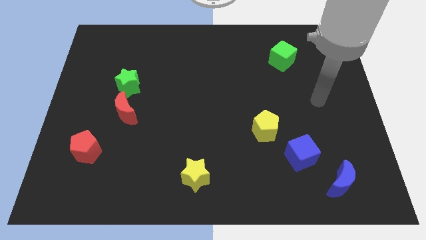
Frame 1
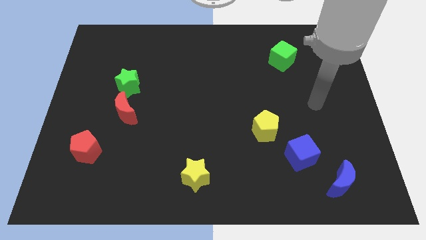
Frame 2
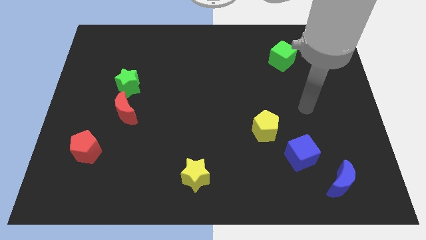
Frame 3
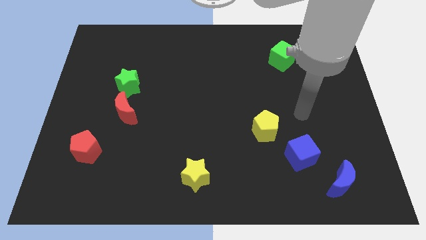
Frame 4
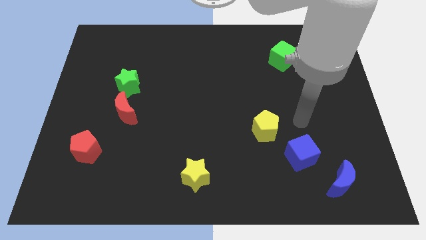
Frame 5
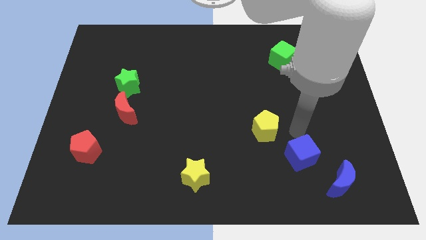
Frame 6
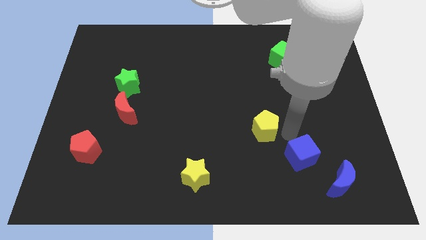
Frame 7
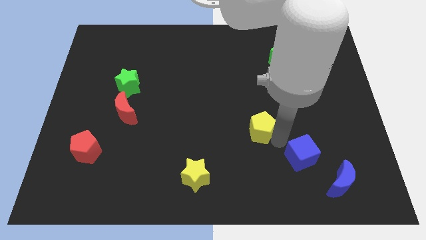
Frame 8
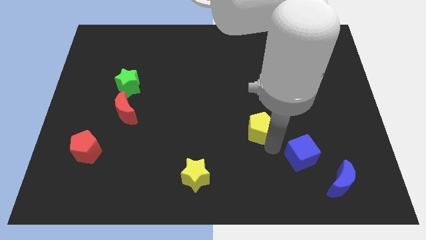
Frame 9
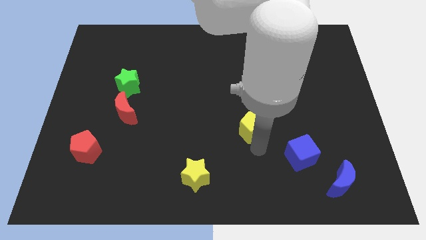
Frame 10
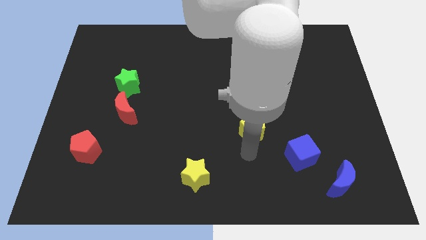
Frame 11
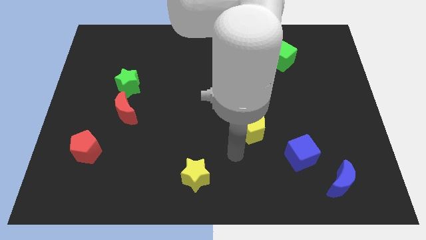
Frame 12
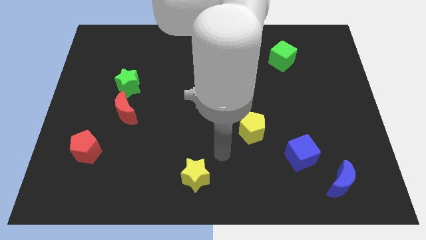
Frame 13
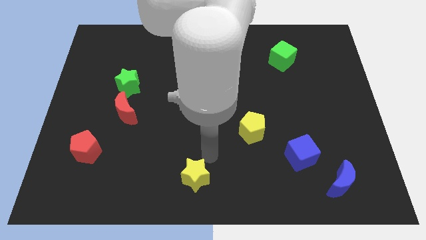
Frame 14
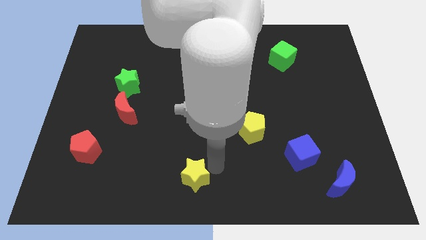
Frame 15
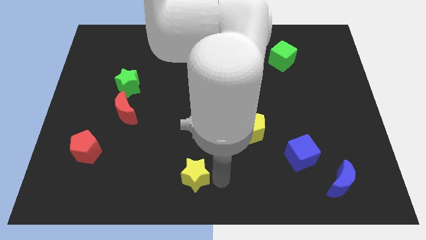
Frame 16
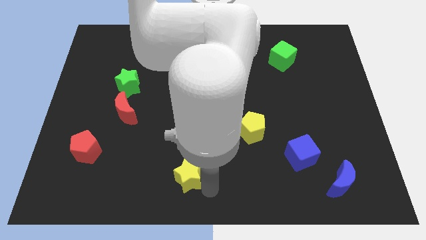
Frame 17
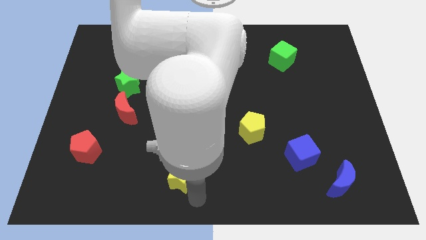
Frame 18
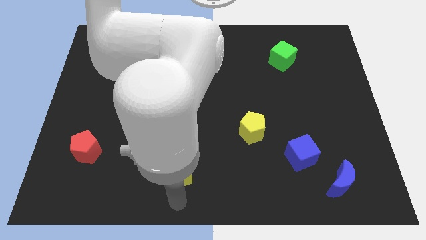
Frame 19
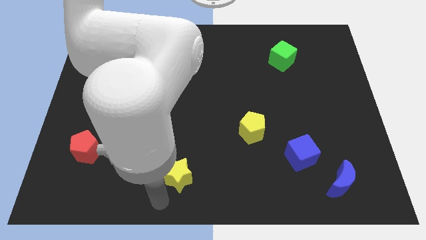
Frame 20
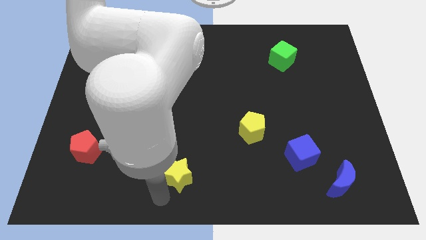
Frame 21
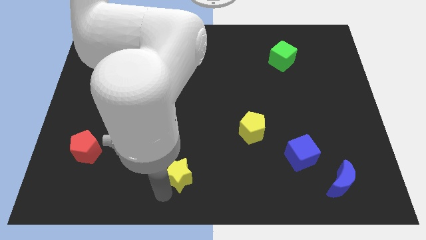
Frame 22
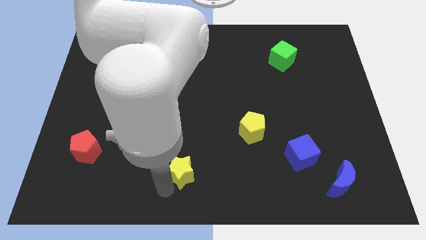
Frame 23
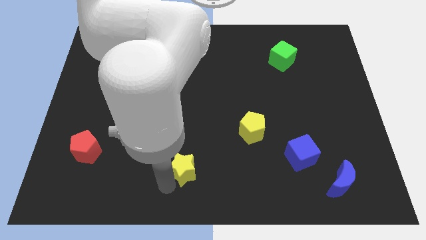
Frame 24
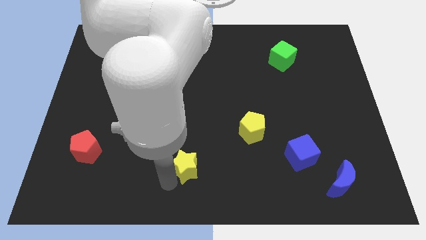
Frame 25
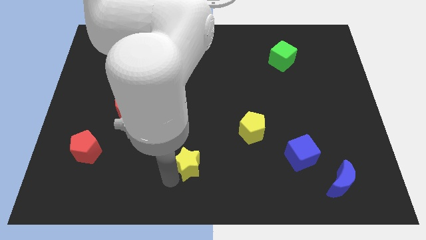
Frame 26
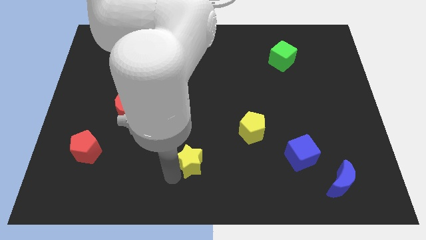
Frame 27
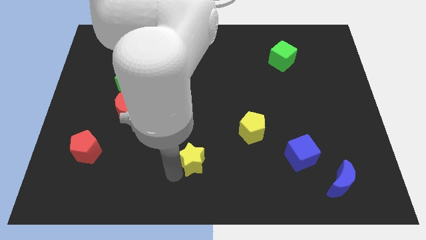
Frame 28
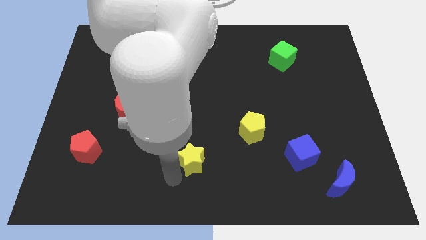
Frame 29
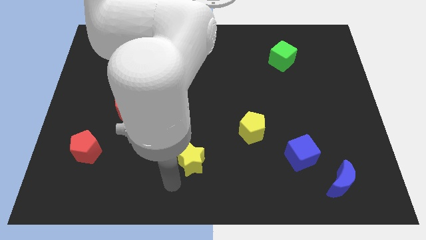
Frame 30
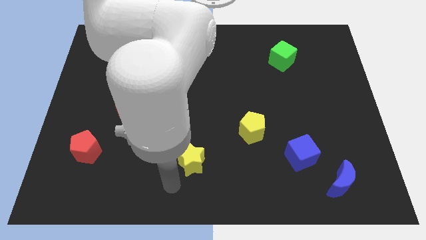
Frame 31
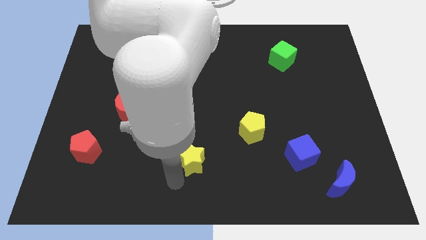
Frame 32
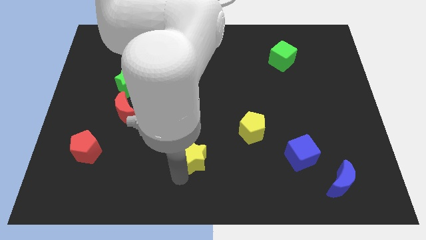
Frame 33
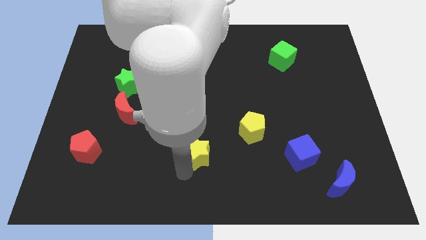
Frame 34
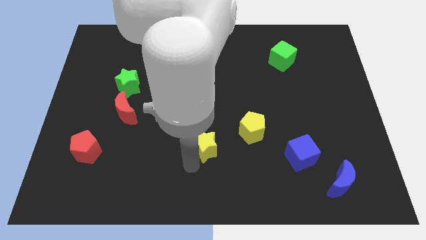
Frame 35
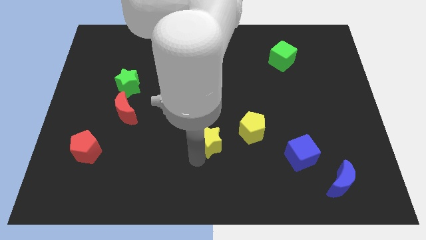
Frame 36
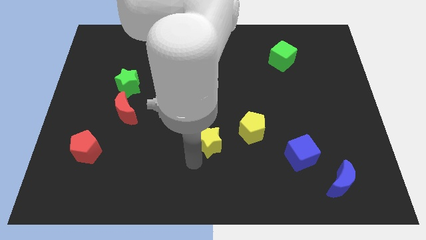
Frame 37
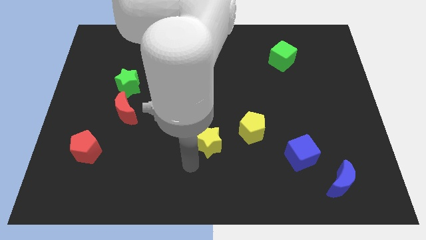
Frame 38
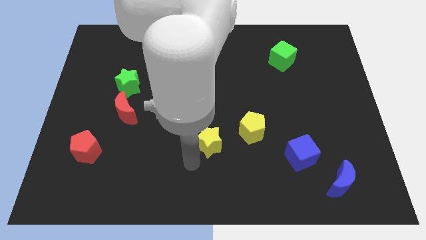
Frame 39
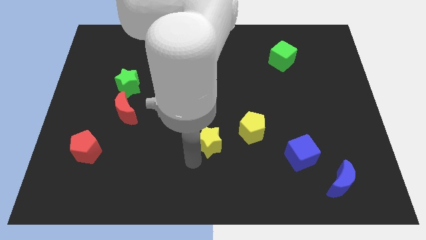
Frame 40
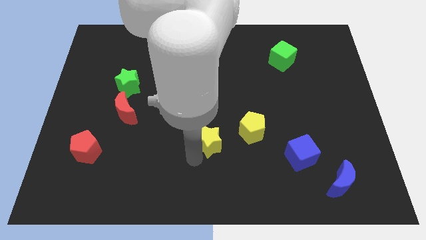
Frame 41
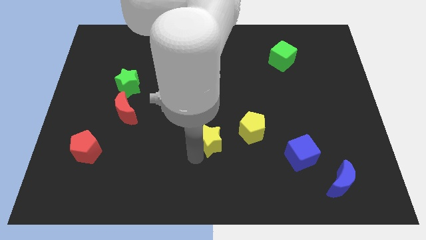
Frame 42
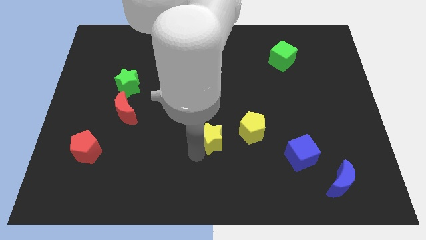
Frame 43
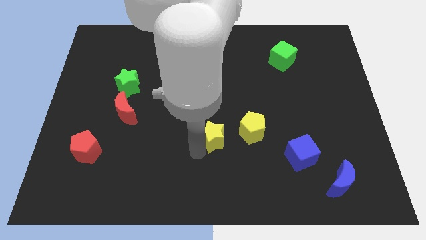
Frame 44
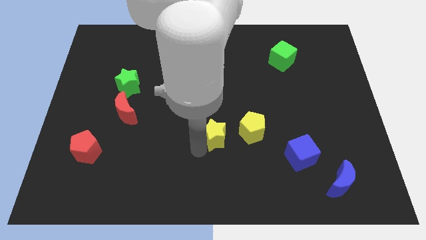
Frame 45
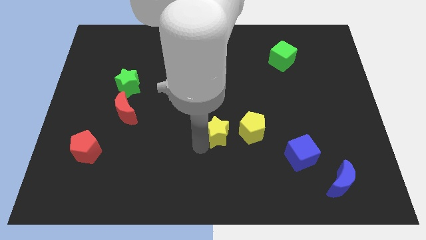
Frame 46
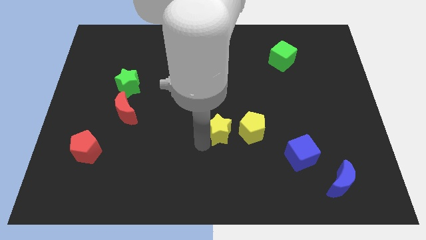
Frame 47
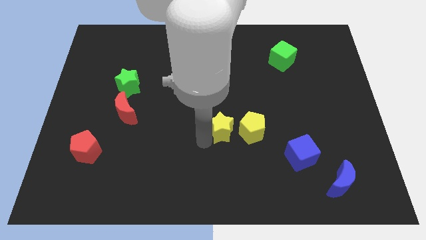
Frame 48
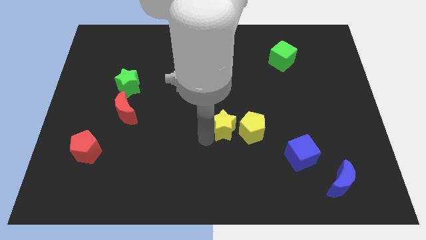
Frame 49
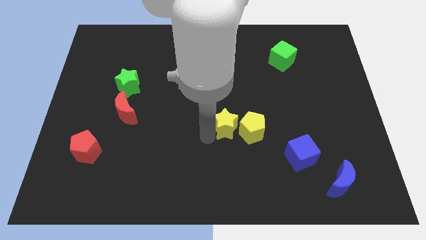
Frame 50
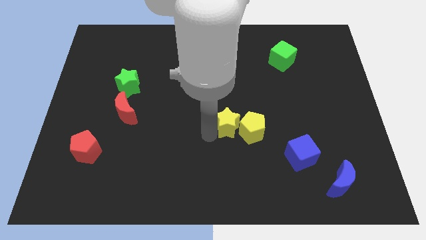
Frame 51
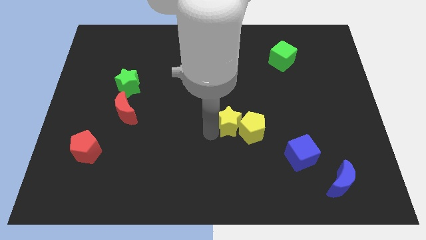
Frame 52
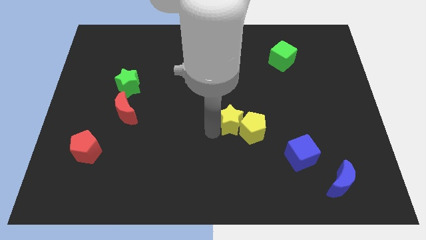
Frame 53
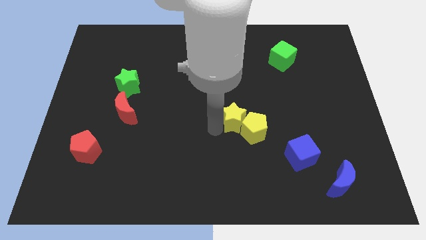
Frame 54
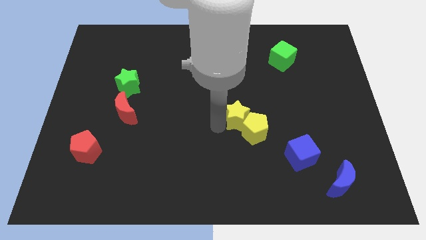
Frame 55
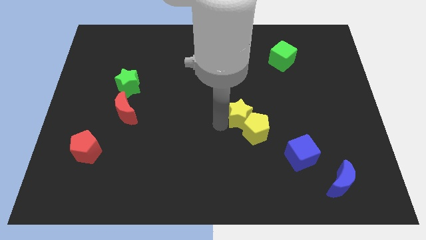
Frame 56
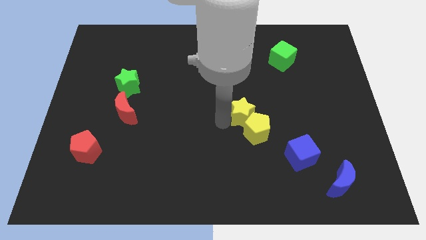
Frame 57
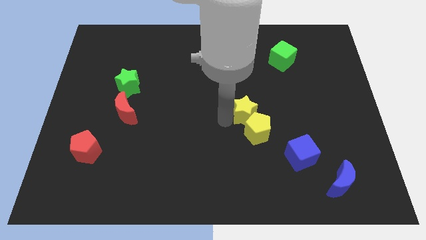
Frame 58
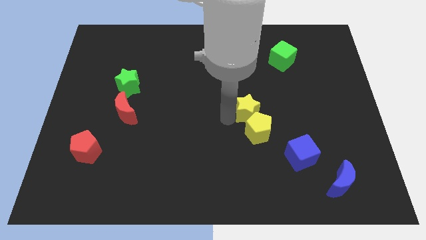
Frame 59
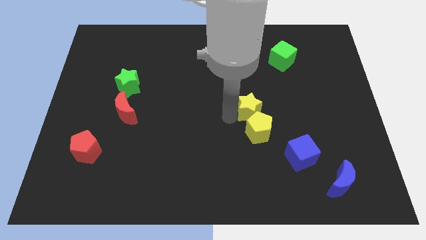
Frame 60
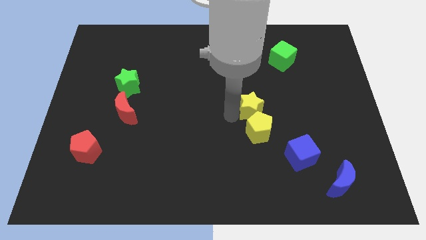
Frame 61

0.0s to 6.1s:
move the yellow star up and right

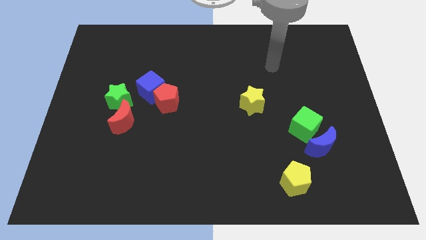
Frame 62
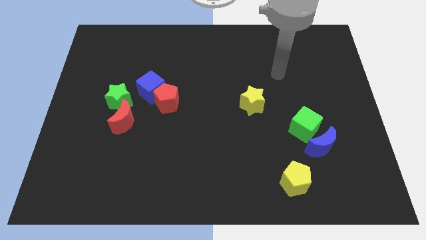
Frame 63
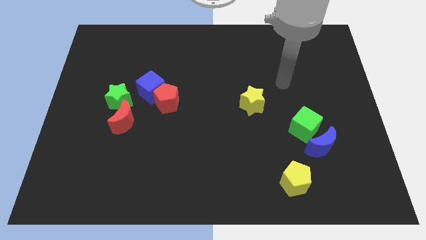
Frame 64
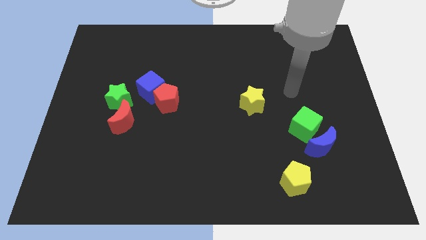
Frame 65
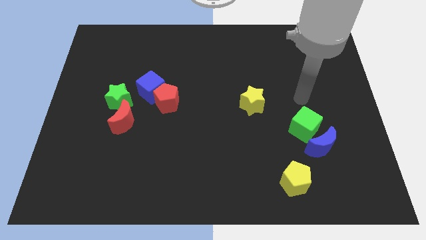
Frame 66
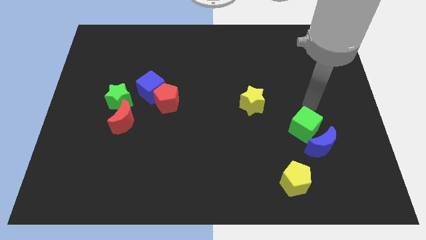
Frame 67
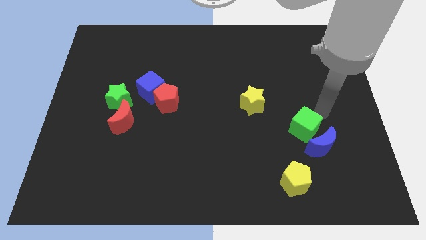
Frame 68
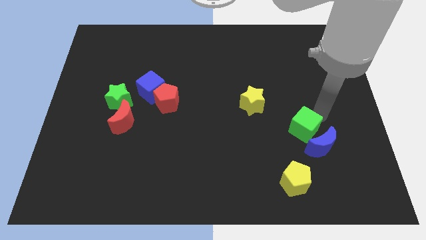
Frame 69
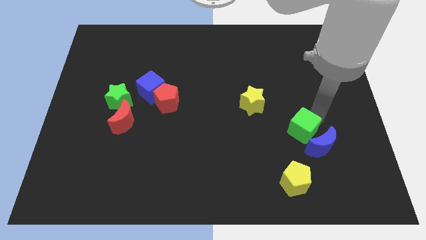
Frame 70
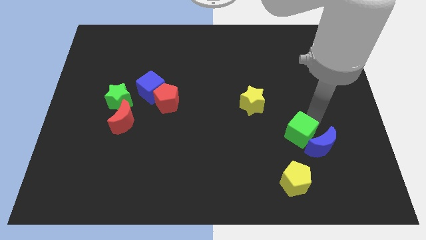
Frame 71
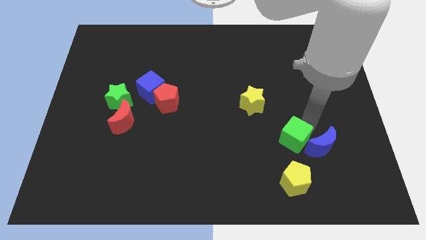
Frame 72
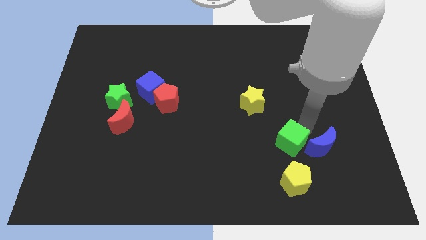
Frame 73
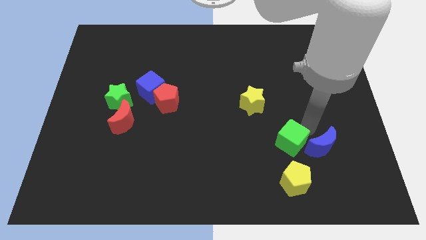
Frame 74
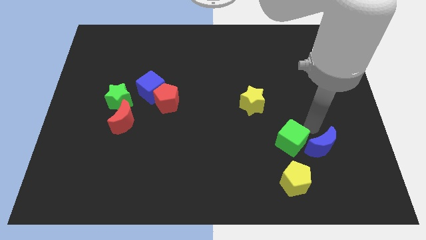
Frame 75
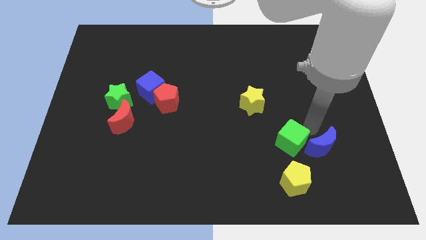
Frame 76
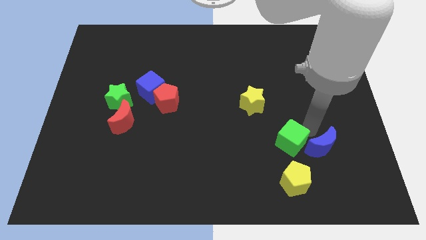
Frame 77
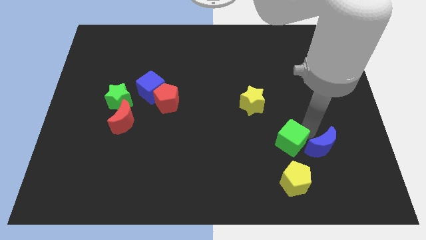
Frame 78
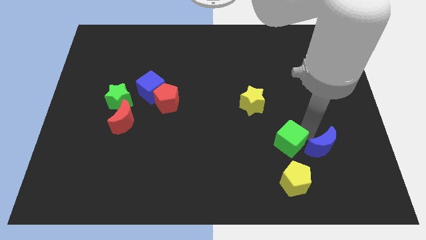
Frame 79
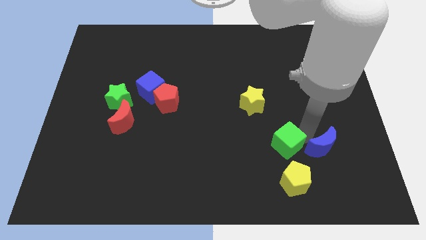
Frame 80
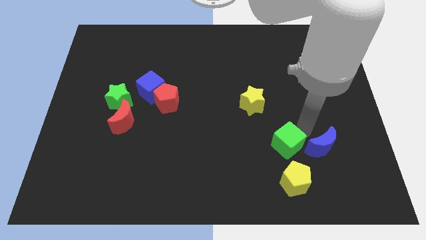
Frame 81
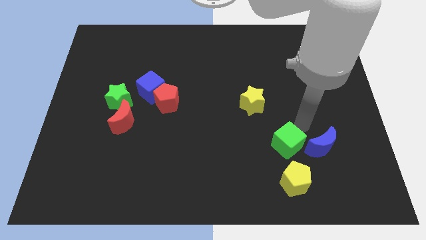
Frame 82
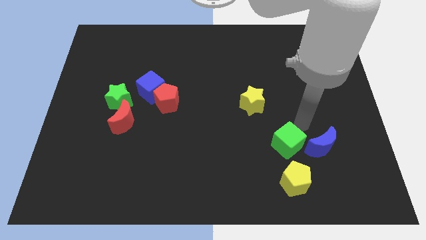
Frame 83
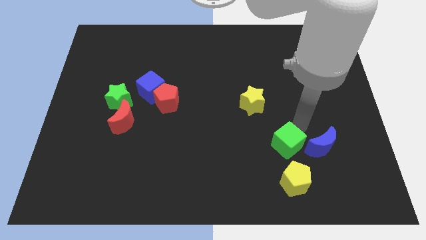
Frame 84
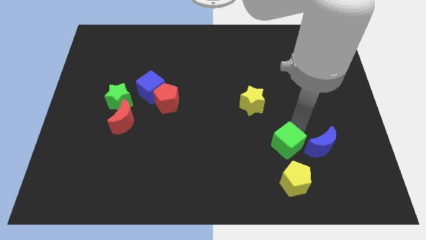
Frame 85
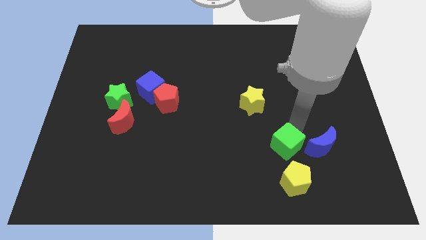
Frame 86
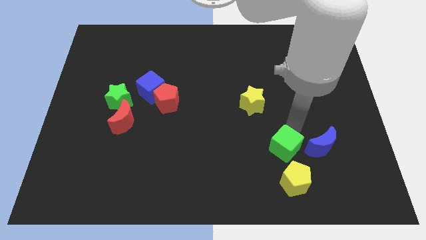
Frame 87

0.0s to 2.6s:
push the green cube a little bit down and then left
